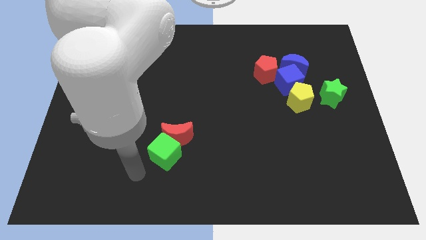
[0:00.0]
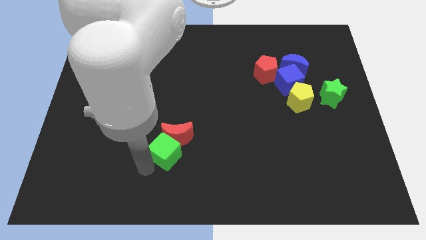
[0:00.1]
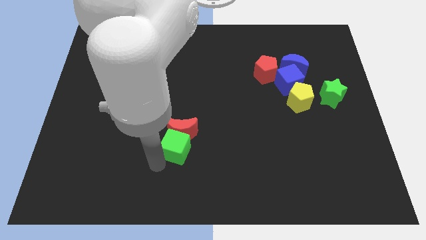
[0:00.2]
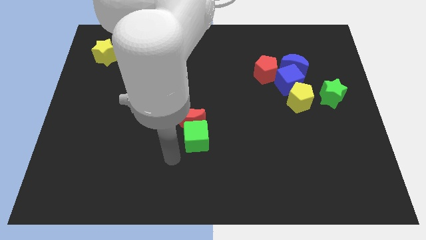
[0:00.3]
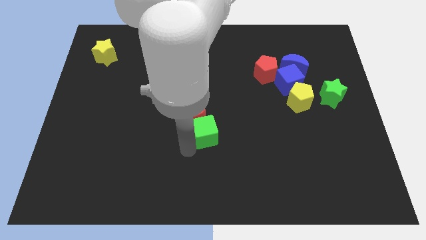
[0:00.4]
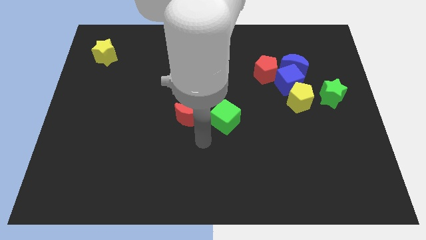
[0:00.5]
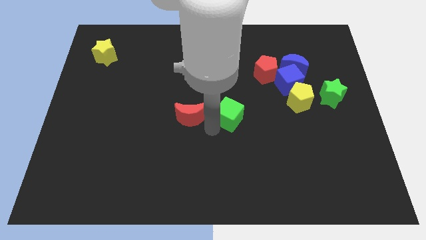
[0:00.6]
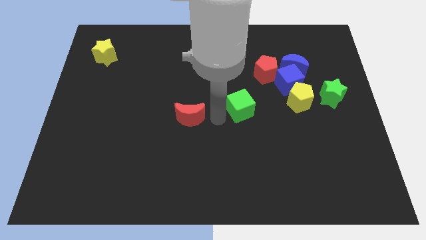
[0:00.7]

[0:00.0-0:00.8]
separate the red moon from the green cube

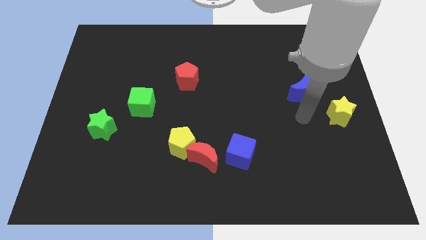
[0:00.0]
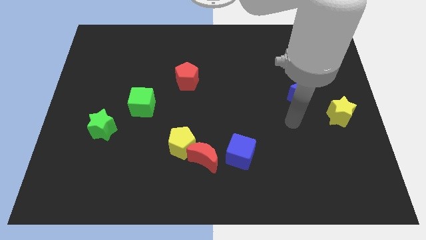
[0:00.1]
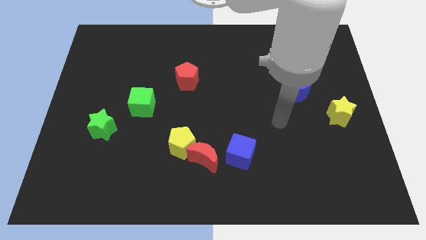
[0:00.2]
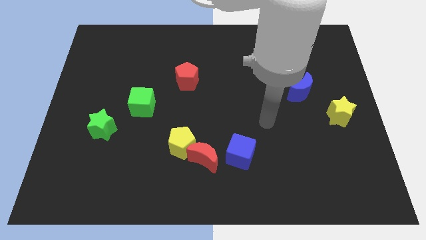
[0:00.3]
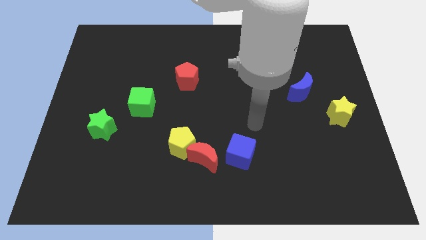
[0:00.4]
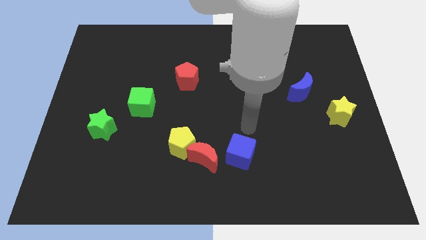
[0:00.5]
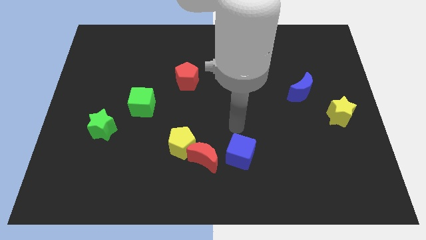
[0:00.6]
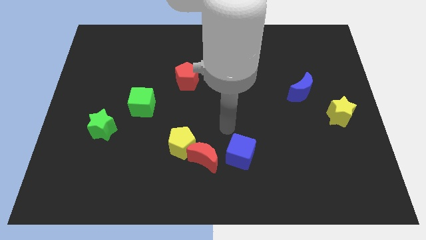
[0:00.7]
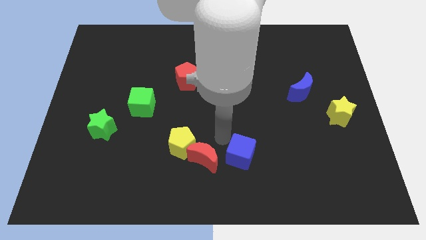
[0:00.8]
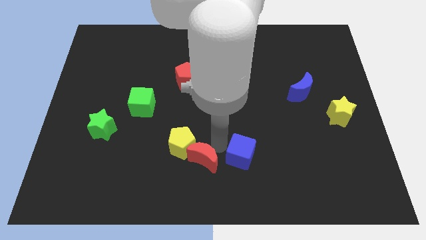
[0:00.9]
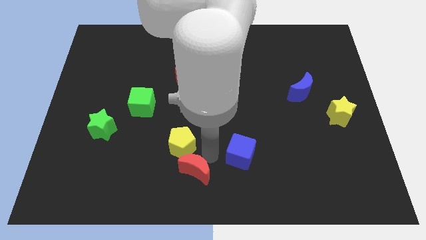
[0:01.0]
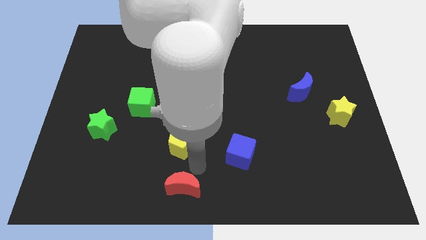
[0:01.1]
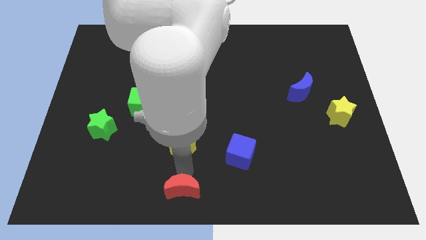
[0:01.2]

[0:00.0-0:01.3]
move the yellow pentagon away from the red moon

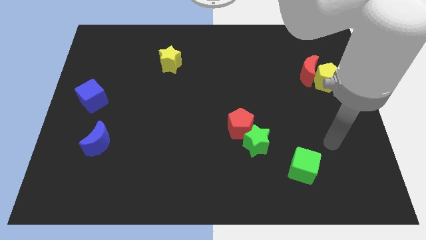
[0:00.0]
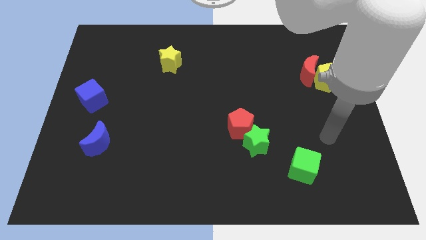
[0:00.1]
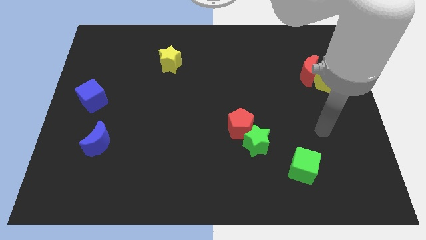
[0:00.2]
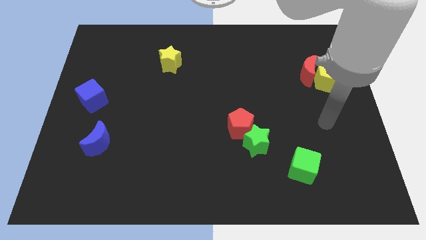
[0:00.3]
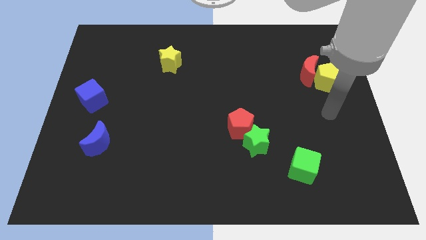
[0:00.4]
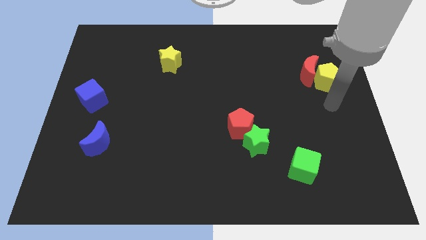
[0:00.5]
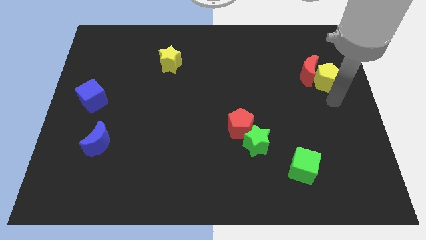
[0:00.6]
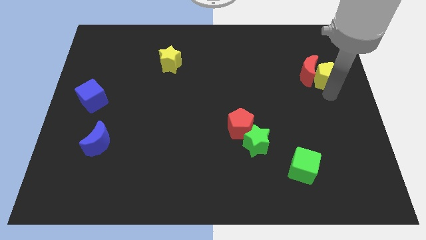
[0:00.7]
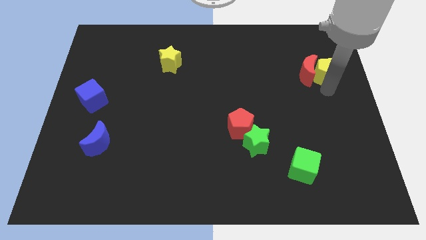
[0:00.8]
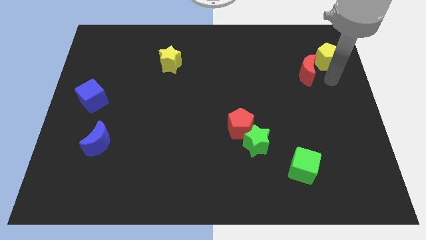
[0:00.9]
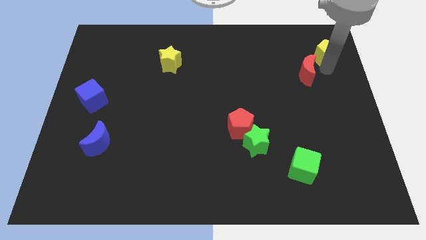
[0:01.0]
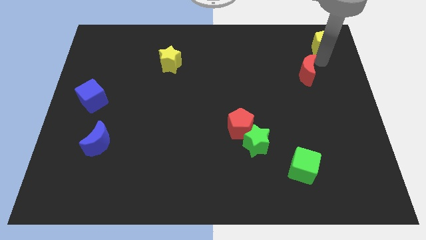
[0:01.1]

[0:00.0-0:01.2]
move the red moon away from the yellow pentagon

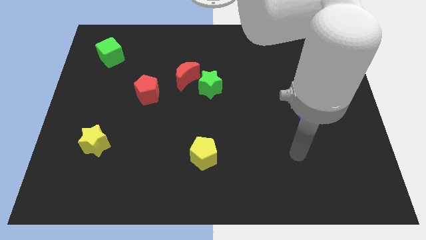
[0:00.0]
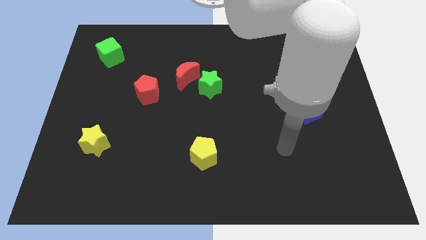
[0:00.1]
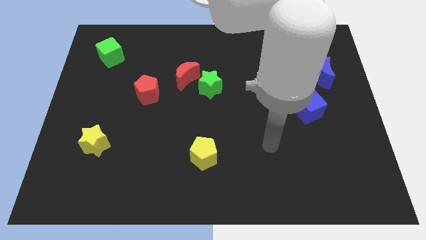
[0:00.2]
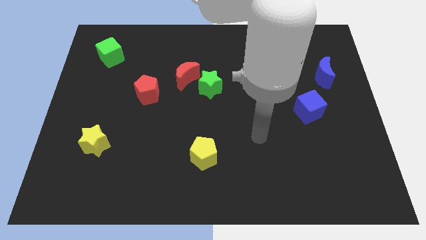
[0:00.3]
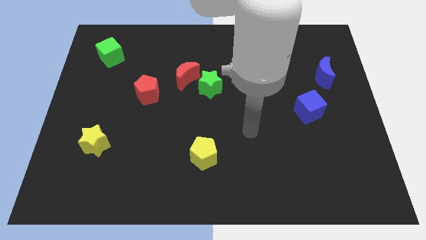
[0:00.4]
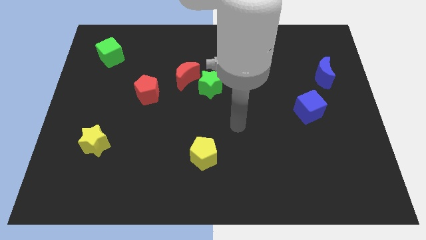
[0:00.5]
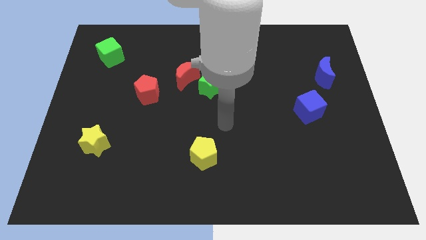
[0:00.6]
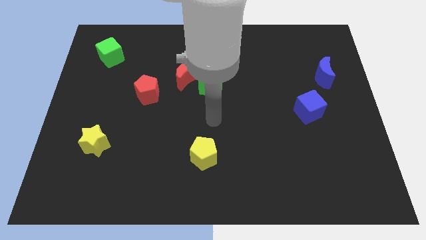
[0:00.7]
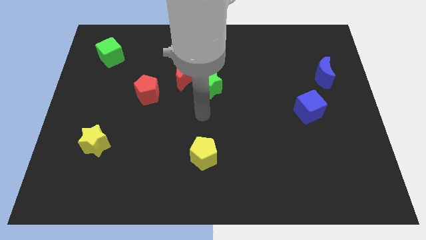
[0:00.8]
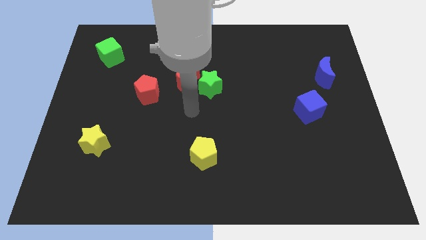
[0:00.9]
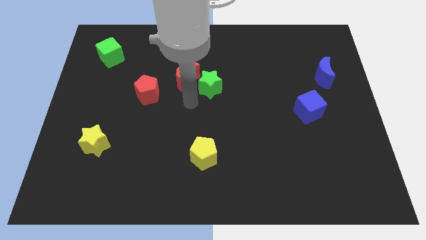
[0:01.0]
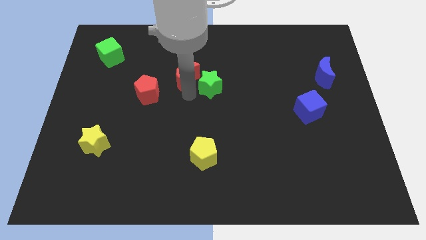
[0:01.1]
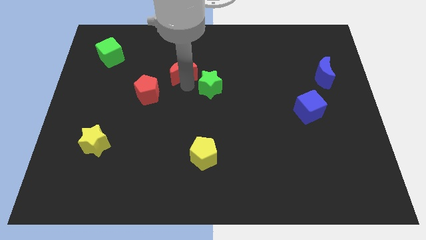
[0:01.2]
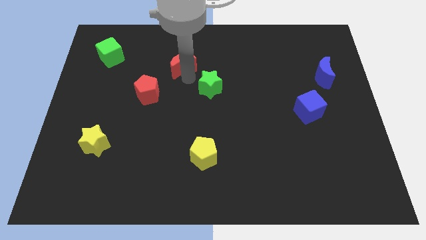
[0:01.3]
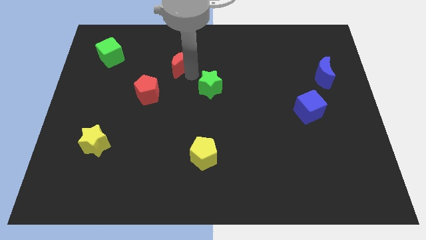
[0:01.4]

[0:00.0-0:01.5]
move the green star away from the red moon

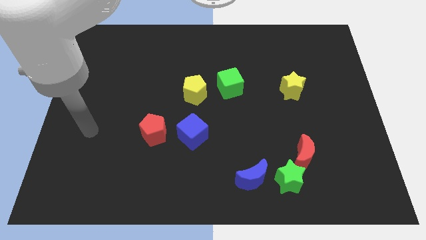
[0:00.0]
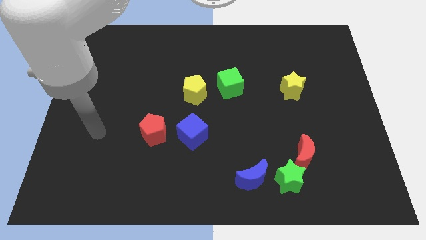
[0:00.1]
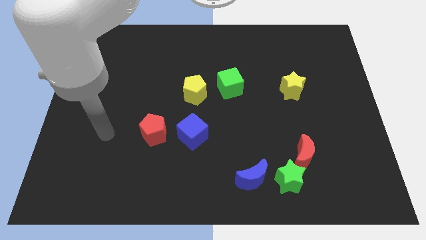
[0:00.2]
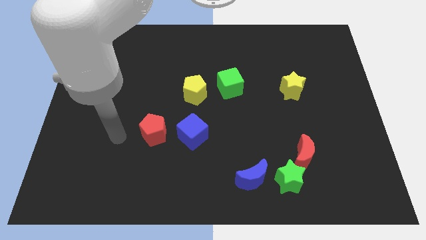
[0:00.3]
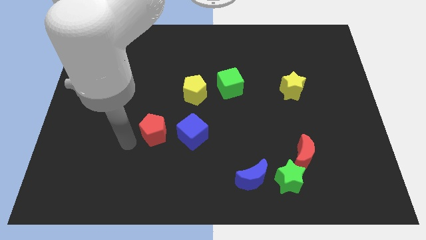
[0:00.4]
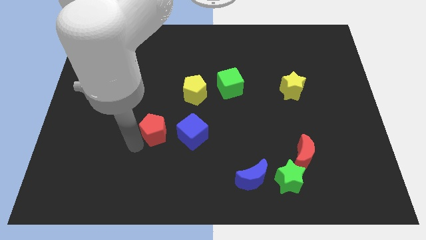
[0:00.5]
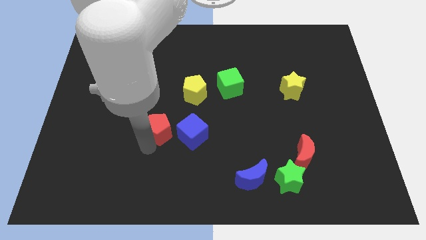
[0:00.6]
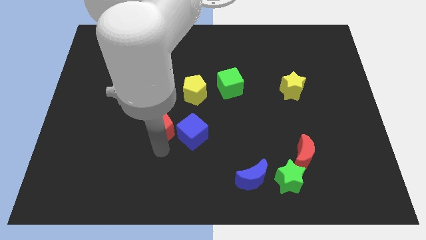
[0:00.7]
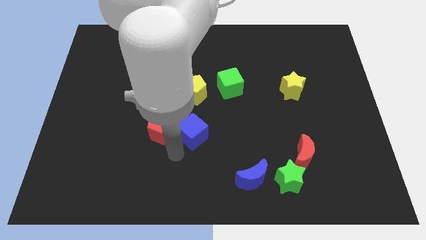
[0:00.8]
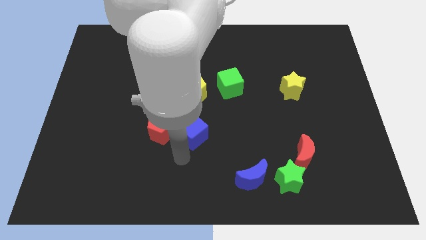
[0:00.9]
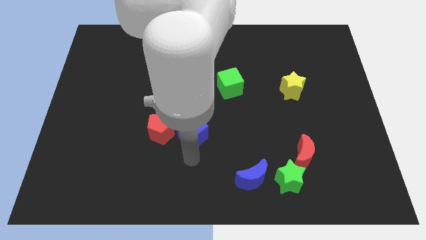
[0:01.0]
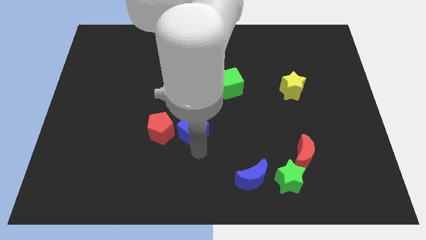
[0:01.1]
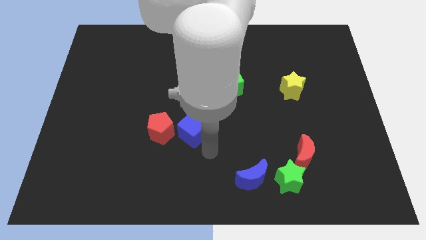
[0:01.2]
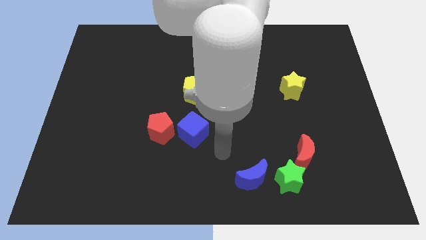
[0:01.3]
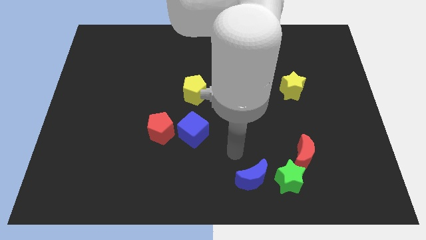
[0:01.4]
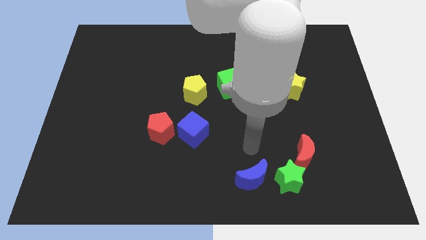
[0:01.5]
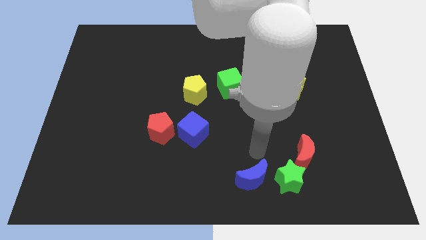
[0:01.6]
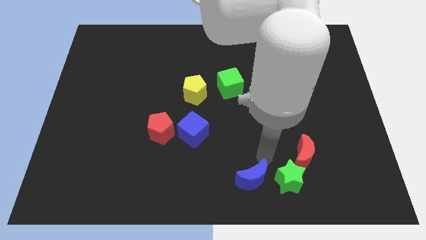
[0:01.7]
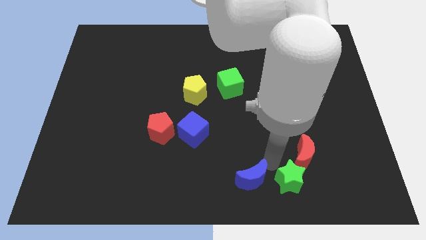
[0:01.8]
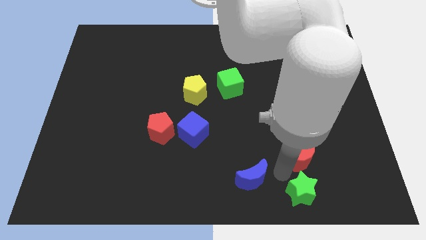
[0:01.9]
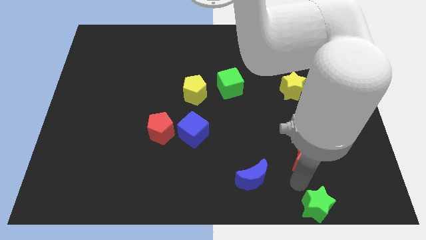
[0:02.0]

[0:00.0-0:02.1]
separate the red moon from the green star

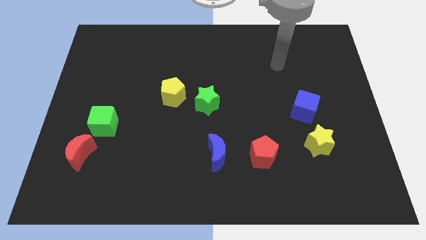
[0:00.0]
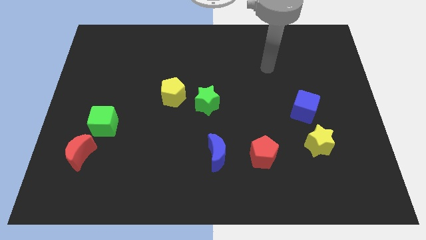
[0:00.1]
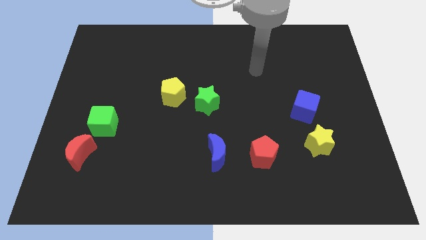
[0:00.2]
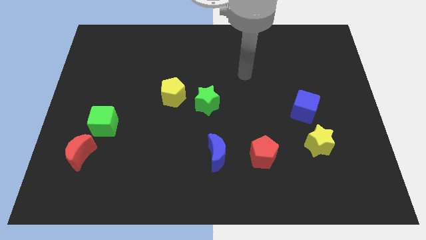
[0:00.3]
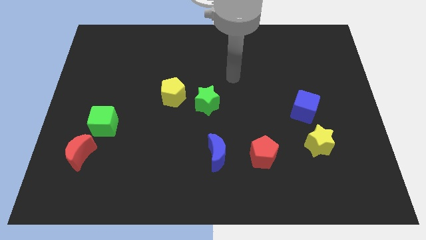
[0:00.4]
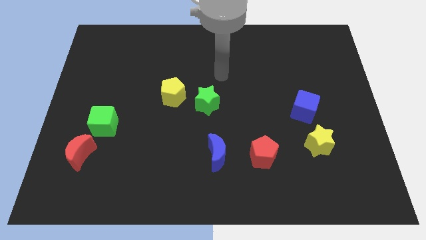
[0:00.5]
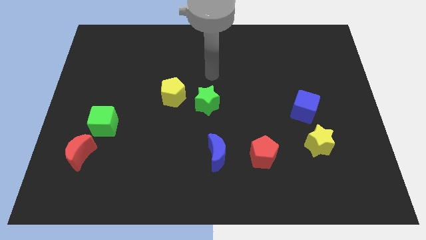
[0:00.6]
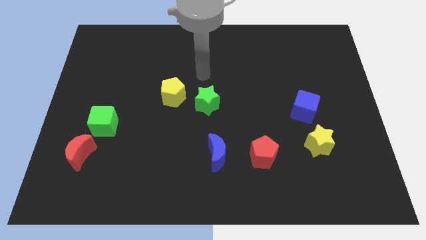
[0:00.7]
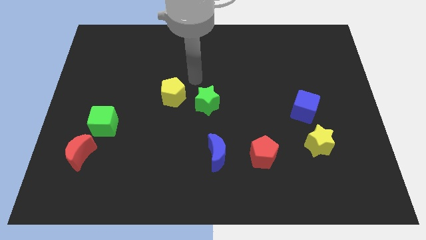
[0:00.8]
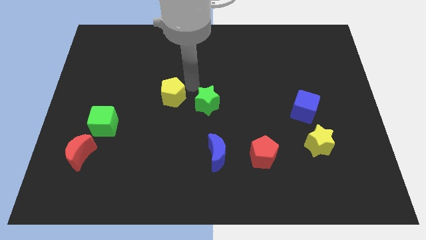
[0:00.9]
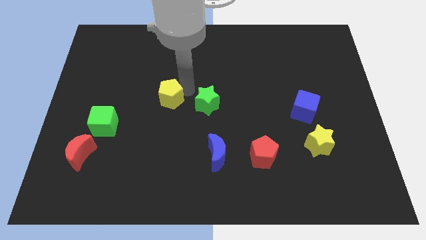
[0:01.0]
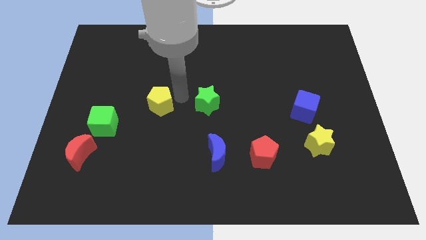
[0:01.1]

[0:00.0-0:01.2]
move the green star away from the yellow pentagon

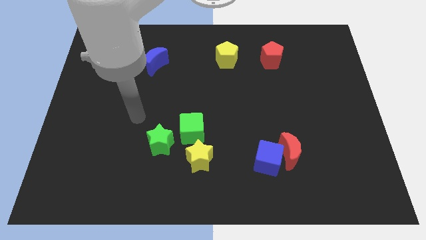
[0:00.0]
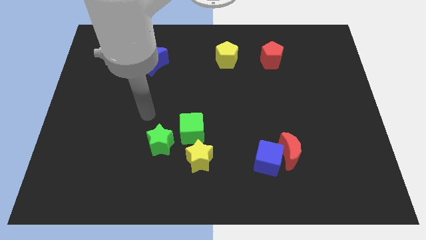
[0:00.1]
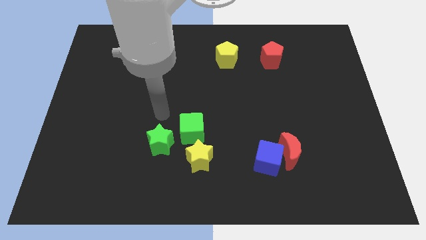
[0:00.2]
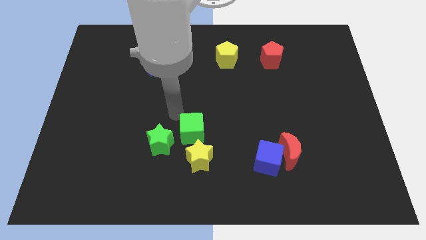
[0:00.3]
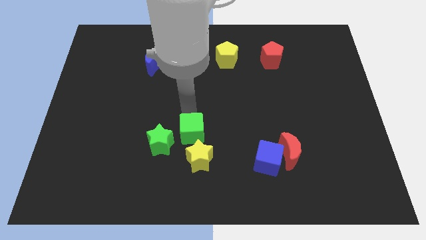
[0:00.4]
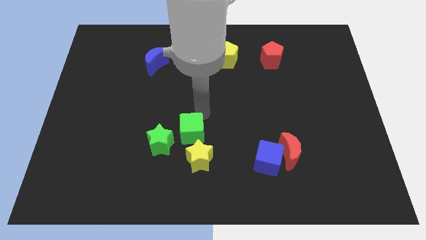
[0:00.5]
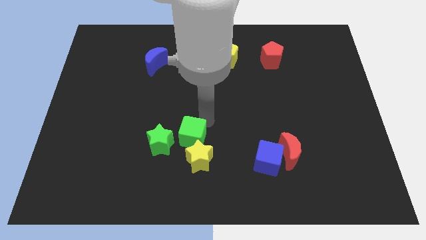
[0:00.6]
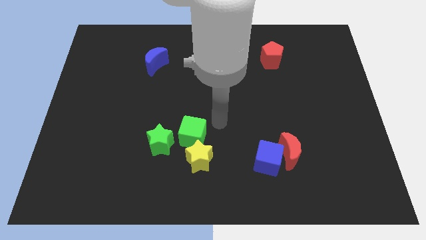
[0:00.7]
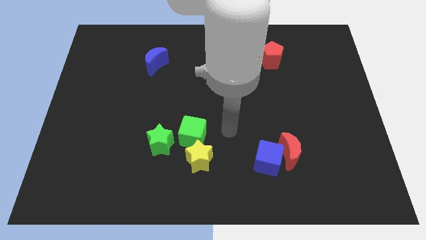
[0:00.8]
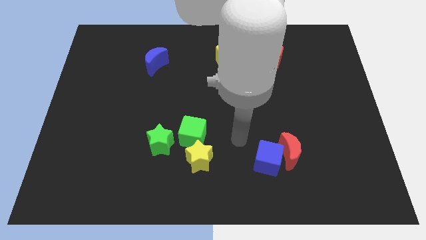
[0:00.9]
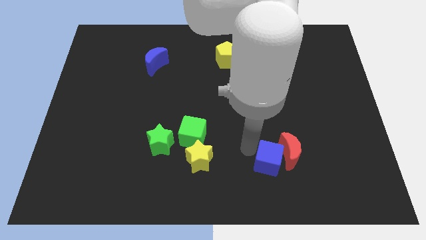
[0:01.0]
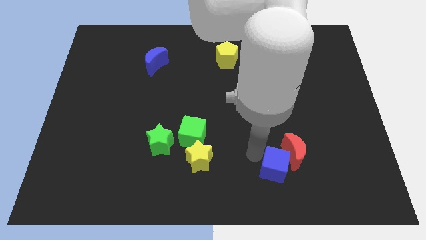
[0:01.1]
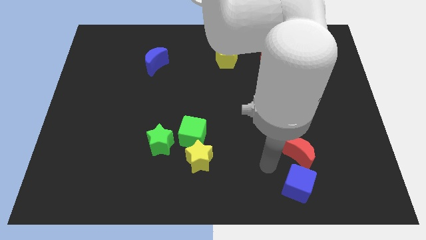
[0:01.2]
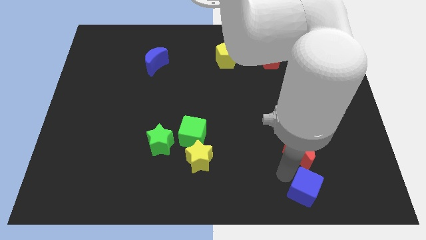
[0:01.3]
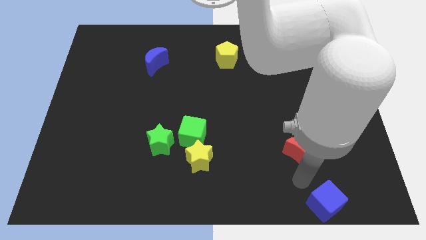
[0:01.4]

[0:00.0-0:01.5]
separate the red moon from the blue cube
